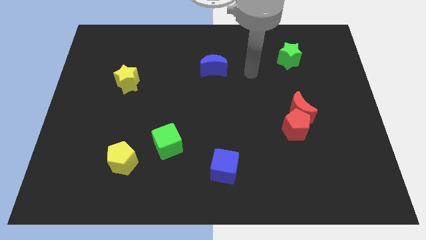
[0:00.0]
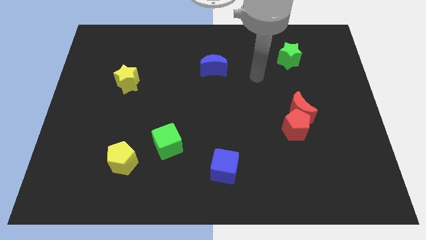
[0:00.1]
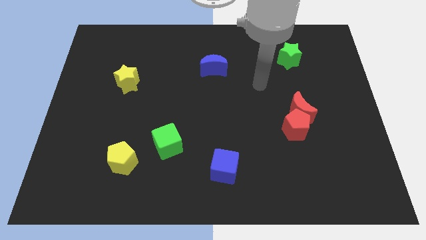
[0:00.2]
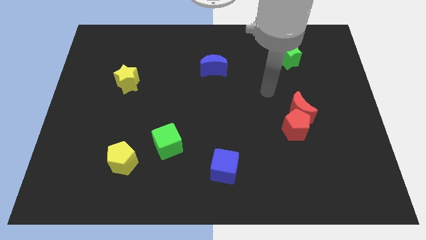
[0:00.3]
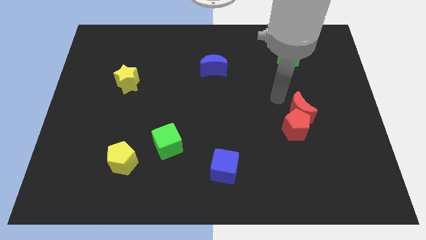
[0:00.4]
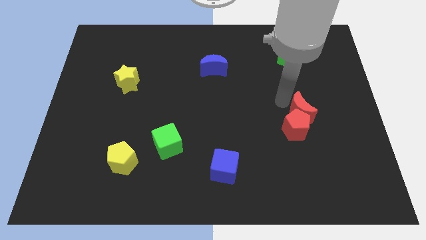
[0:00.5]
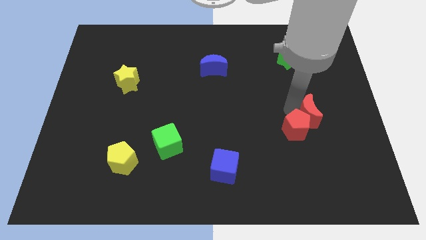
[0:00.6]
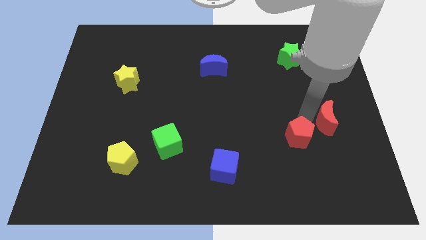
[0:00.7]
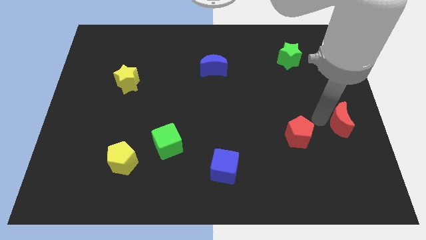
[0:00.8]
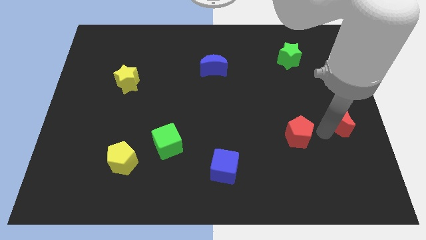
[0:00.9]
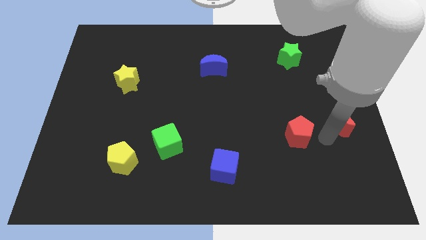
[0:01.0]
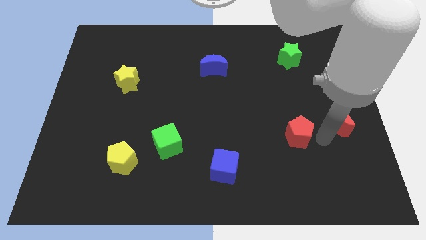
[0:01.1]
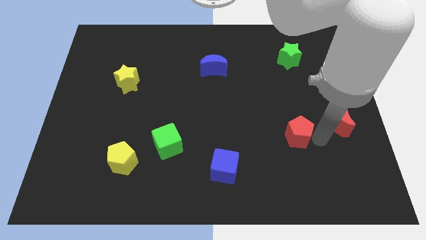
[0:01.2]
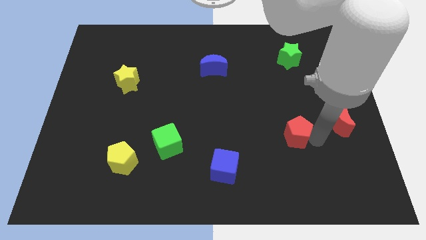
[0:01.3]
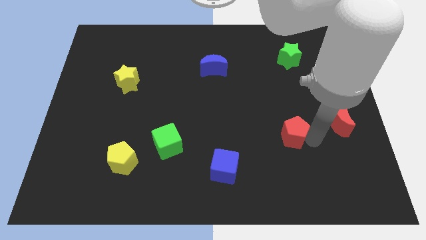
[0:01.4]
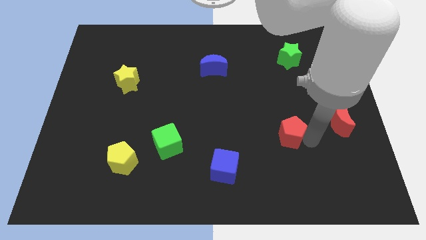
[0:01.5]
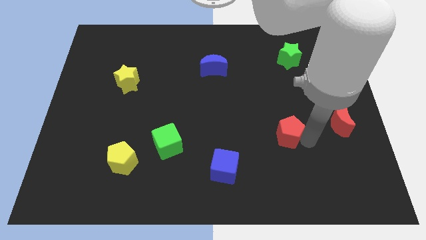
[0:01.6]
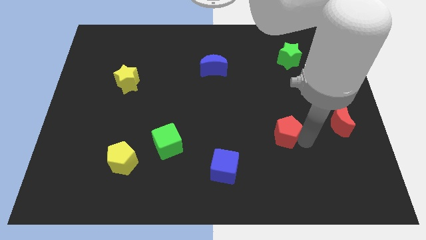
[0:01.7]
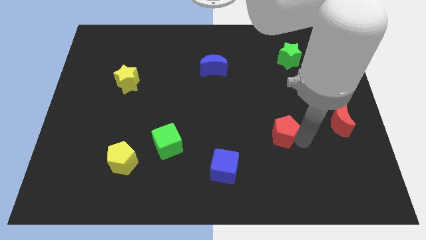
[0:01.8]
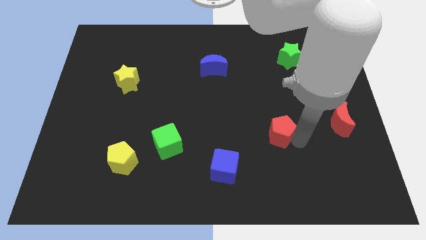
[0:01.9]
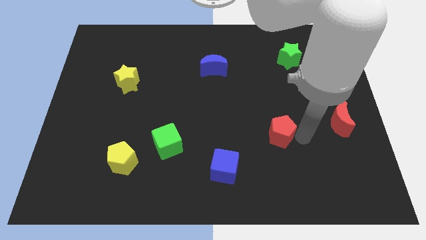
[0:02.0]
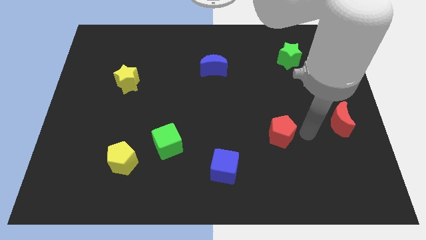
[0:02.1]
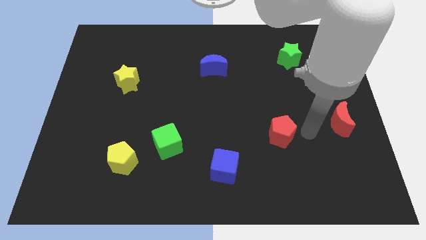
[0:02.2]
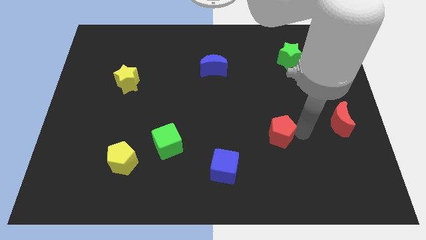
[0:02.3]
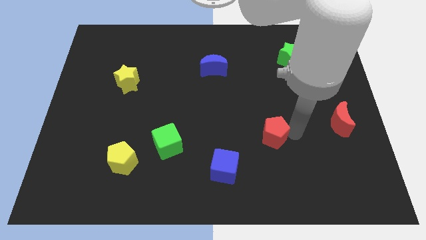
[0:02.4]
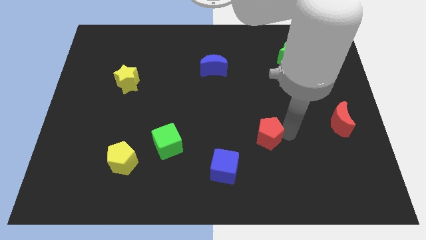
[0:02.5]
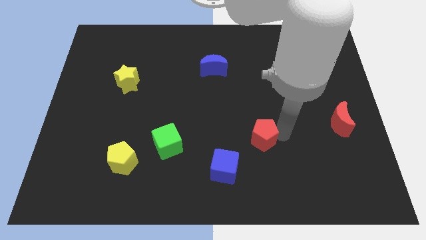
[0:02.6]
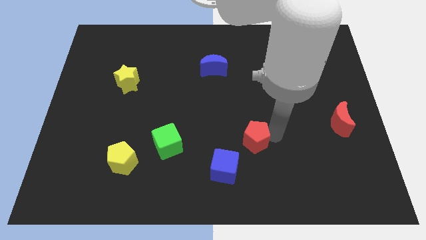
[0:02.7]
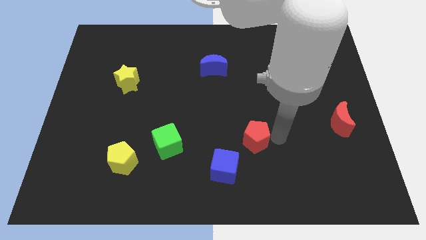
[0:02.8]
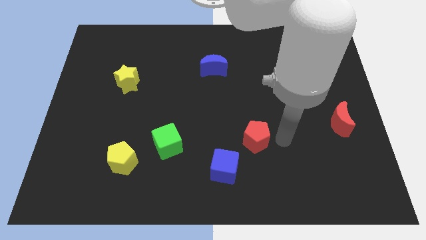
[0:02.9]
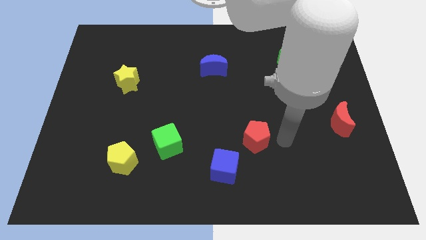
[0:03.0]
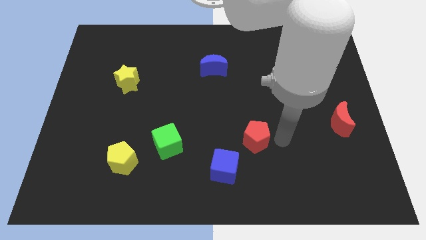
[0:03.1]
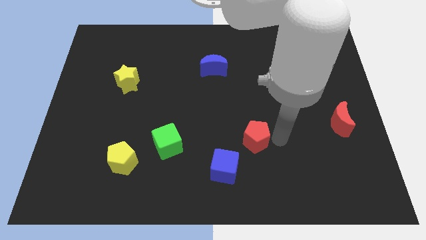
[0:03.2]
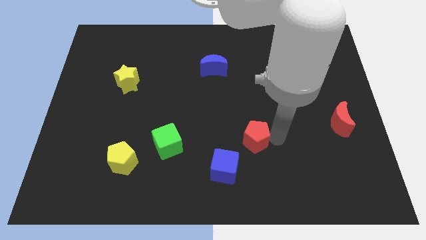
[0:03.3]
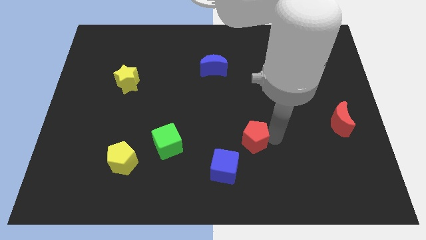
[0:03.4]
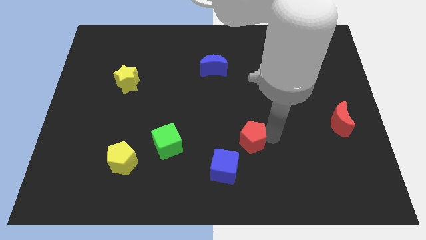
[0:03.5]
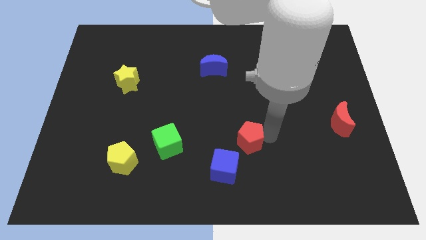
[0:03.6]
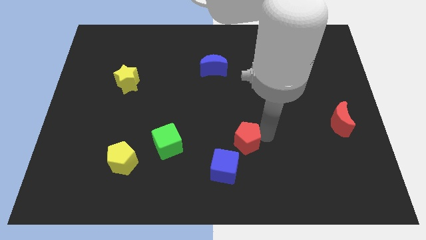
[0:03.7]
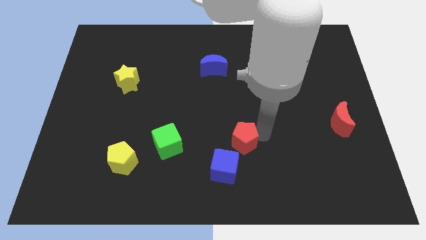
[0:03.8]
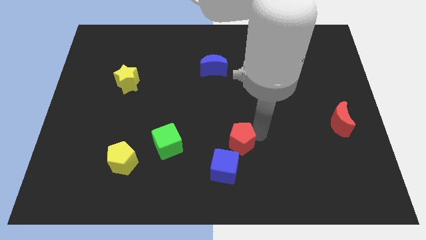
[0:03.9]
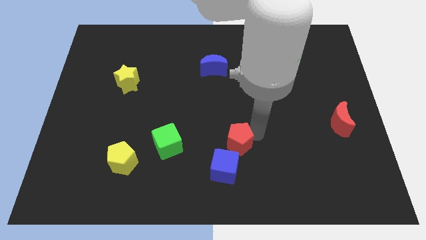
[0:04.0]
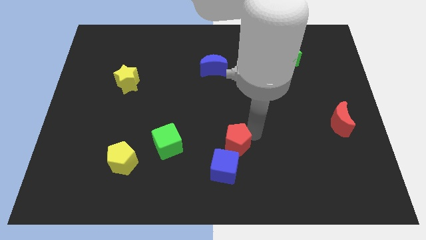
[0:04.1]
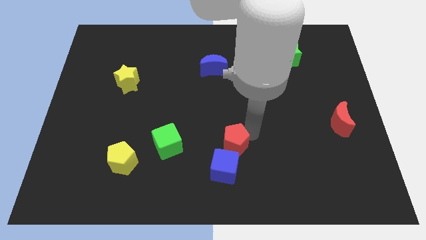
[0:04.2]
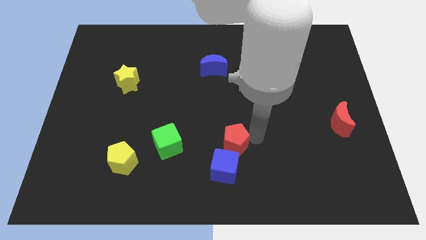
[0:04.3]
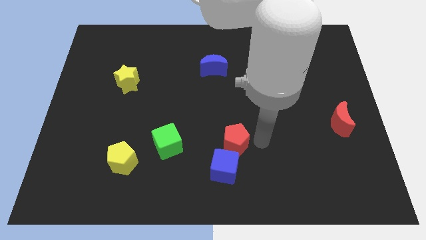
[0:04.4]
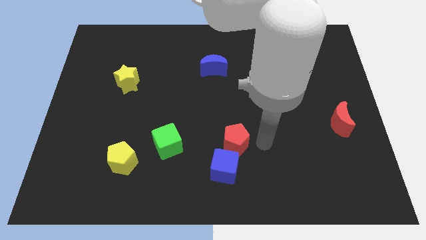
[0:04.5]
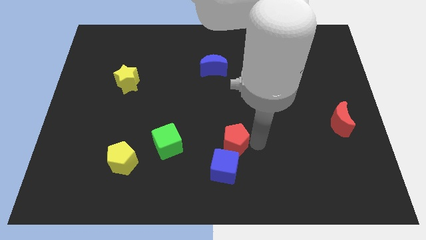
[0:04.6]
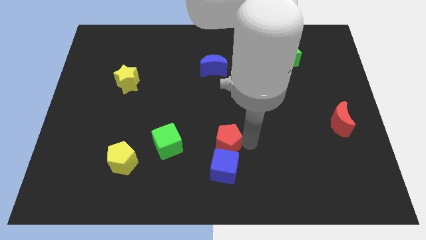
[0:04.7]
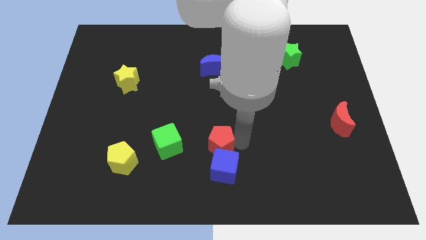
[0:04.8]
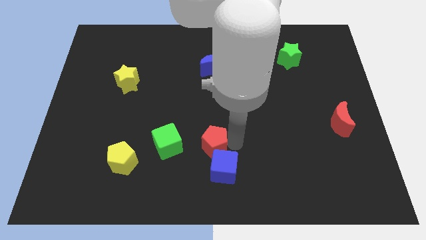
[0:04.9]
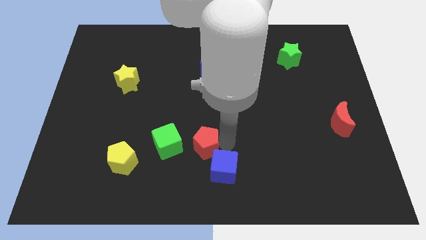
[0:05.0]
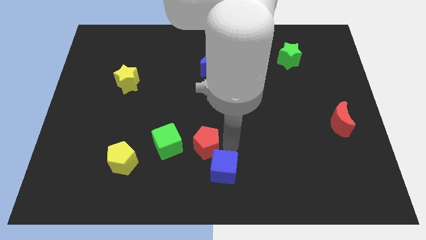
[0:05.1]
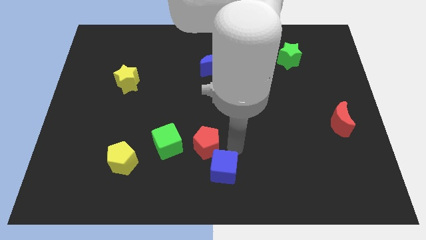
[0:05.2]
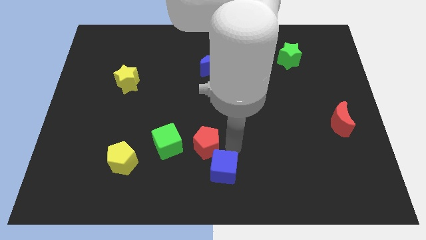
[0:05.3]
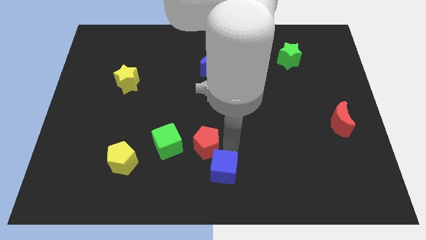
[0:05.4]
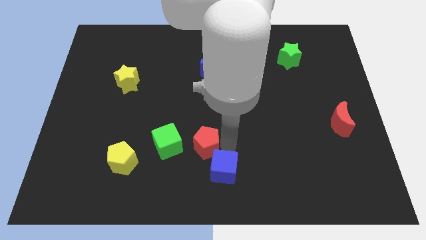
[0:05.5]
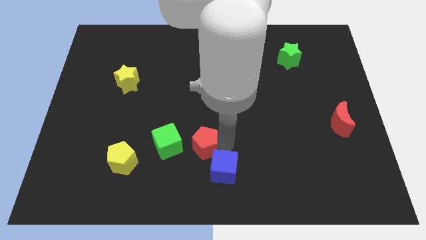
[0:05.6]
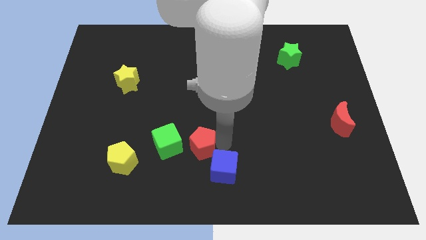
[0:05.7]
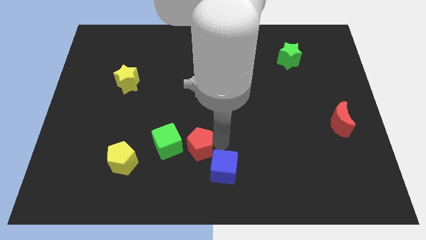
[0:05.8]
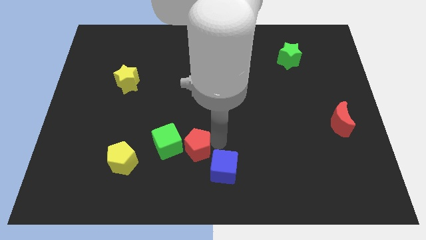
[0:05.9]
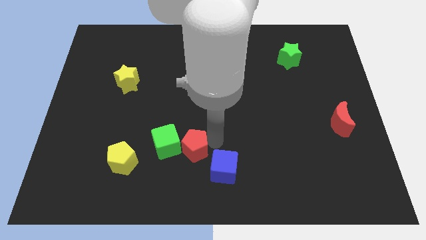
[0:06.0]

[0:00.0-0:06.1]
move the red pentagon close to the green cube

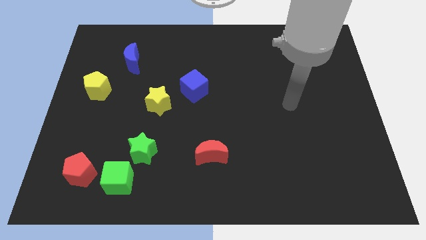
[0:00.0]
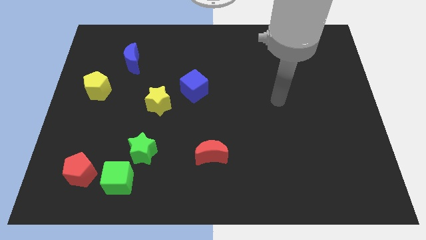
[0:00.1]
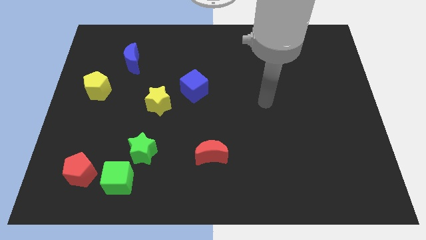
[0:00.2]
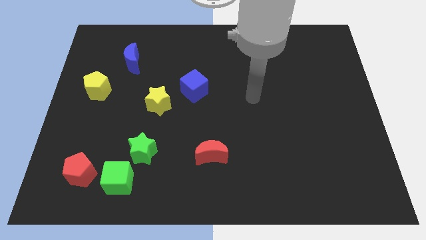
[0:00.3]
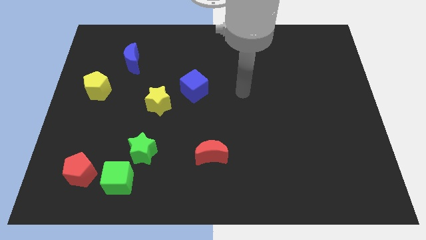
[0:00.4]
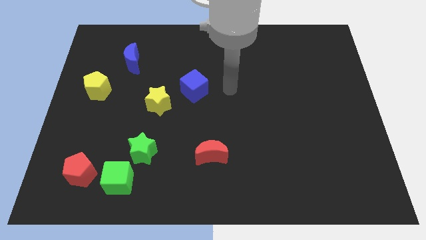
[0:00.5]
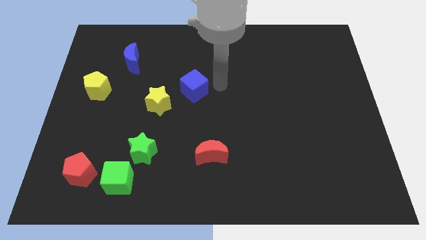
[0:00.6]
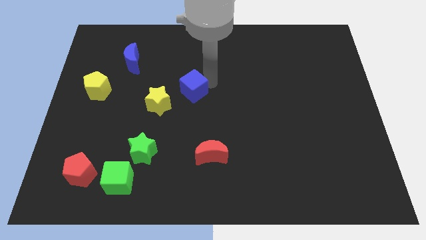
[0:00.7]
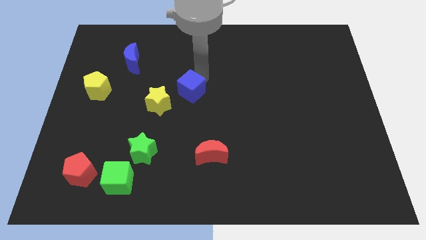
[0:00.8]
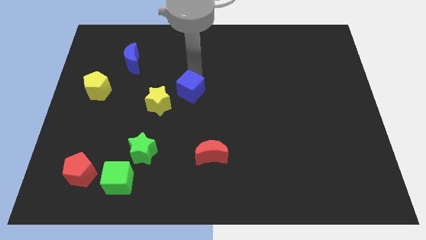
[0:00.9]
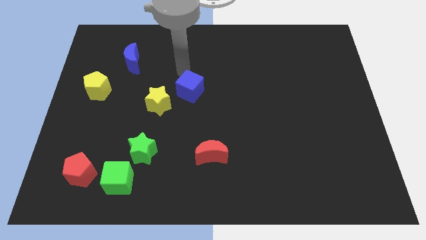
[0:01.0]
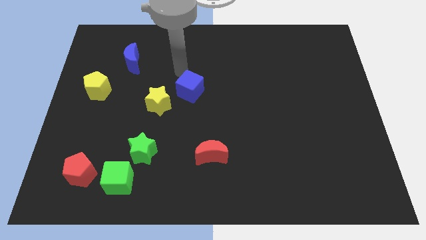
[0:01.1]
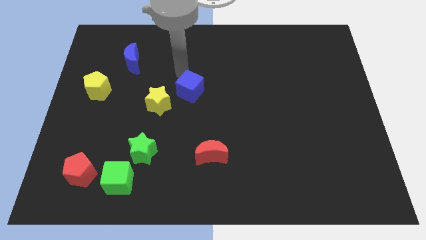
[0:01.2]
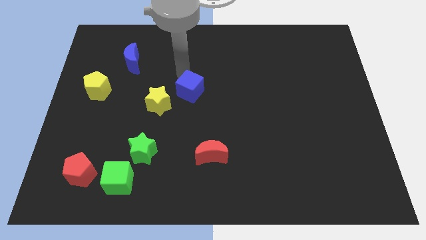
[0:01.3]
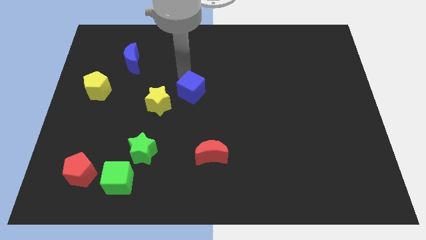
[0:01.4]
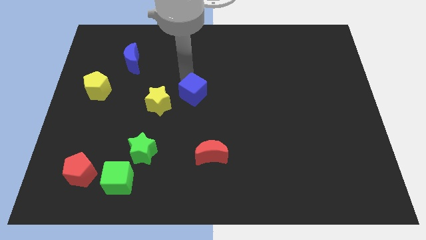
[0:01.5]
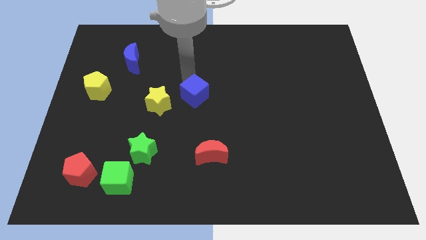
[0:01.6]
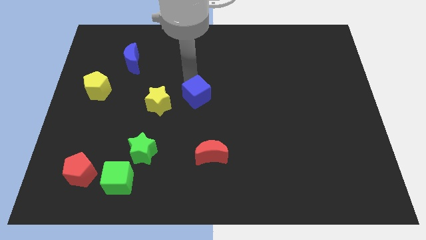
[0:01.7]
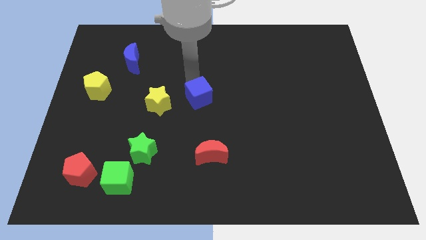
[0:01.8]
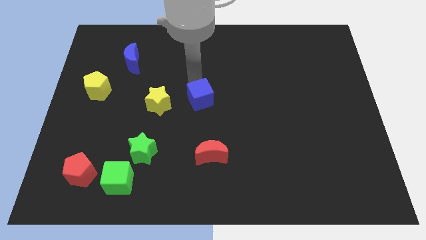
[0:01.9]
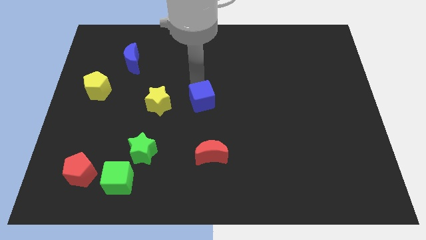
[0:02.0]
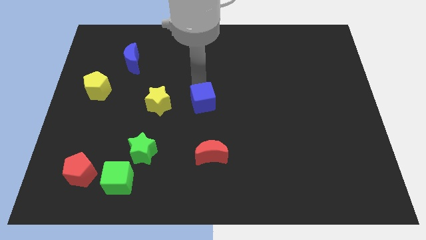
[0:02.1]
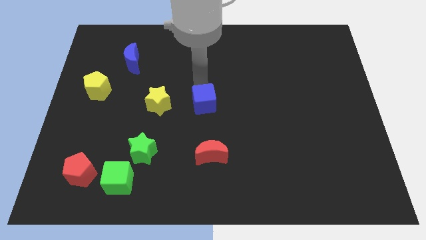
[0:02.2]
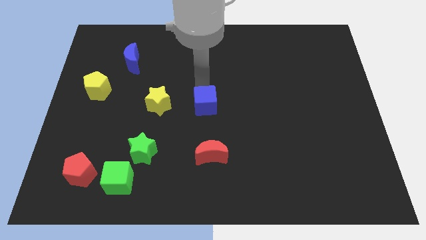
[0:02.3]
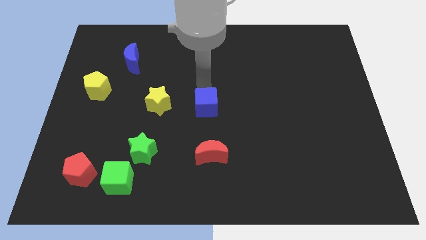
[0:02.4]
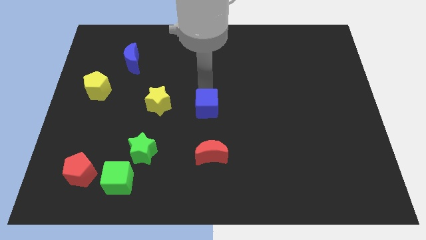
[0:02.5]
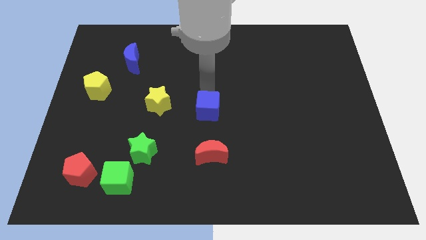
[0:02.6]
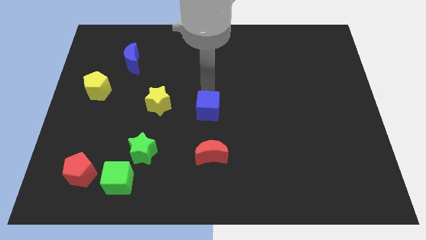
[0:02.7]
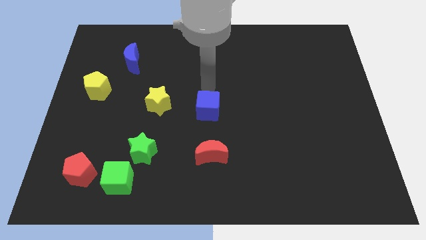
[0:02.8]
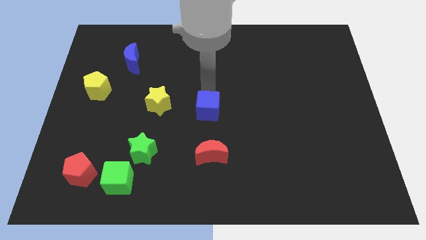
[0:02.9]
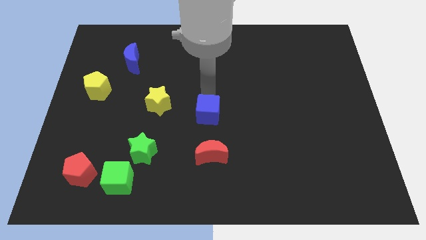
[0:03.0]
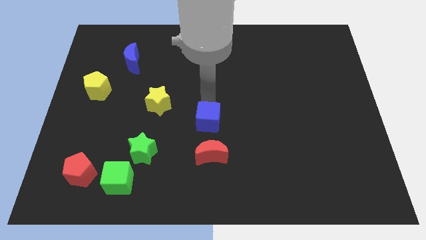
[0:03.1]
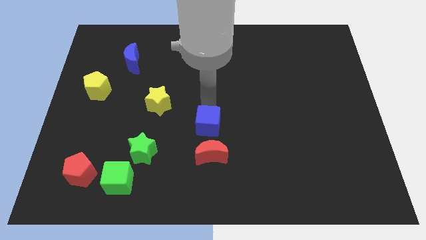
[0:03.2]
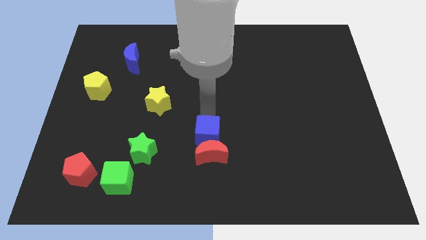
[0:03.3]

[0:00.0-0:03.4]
slide the blue cube next to the red moon
